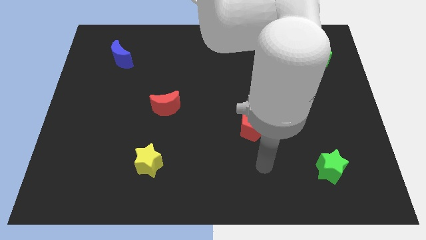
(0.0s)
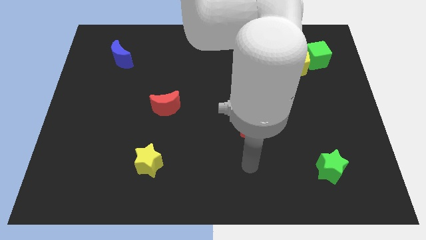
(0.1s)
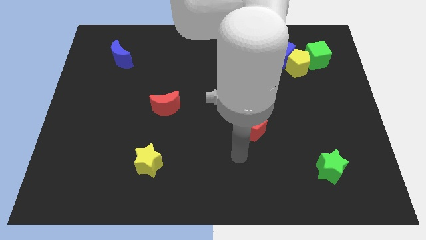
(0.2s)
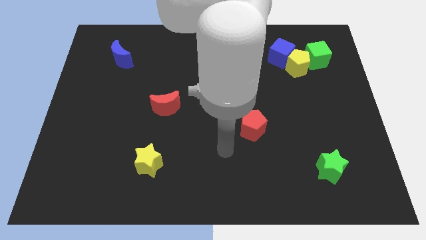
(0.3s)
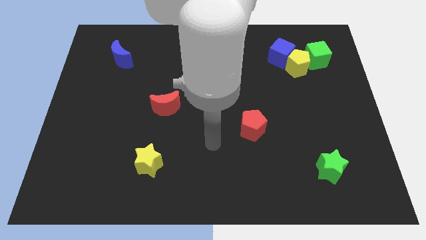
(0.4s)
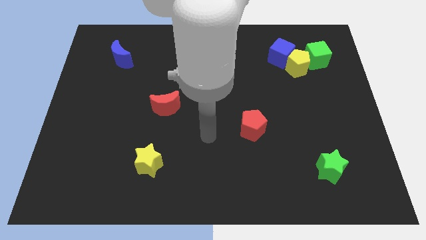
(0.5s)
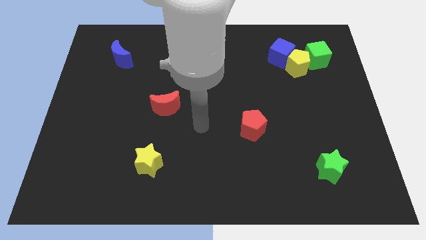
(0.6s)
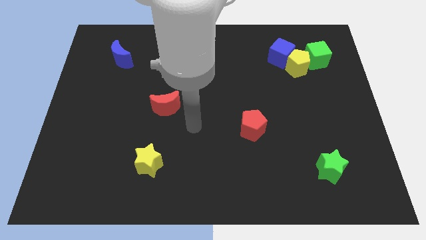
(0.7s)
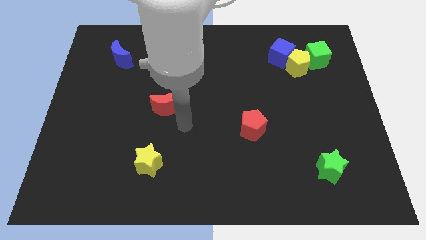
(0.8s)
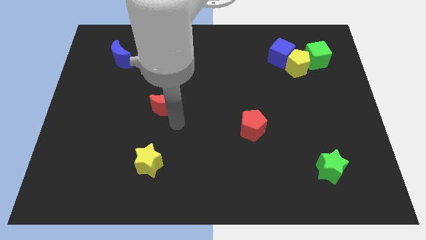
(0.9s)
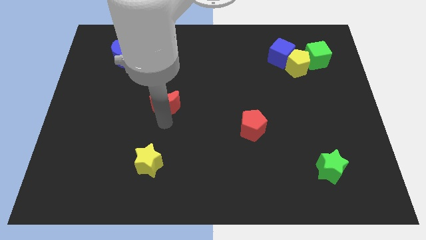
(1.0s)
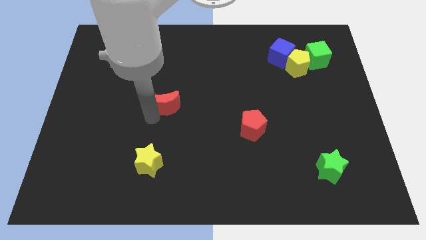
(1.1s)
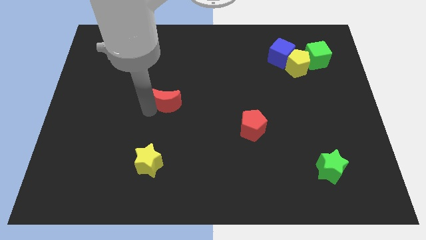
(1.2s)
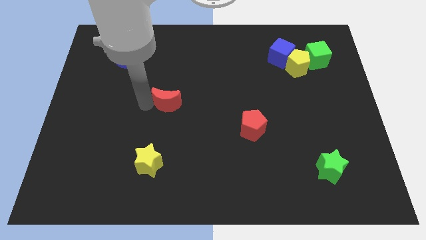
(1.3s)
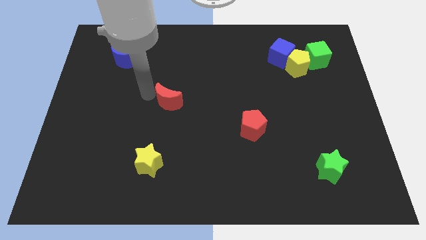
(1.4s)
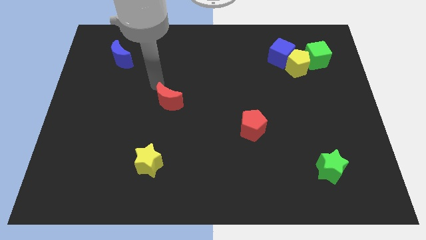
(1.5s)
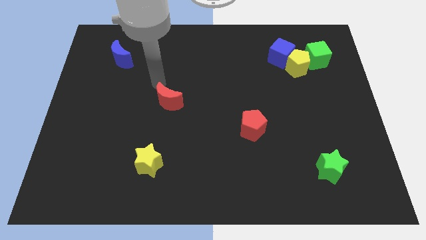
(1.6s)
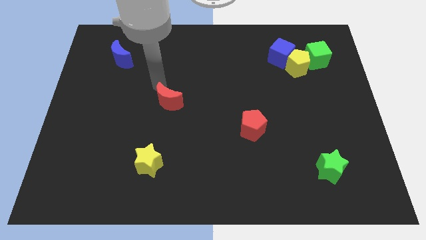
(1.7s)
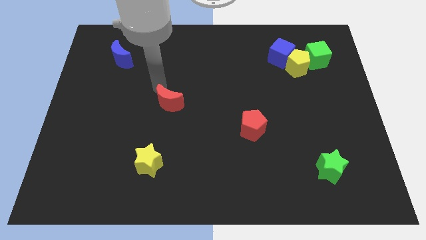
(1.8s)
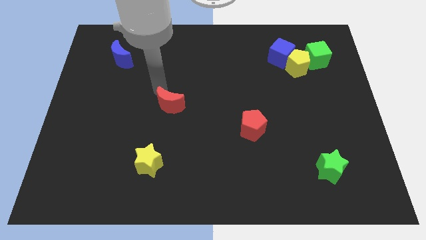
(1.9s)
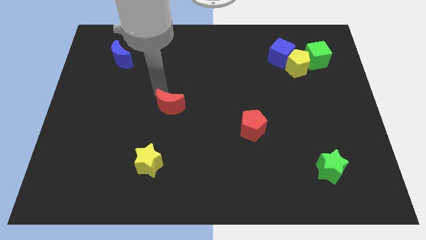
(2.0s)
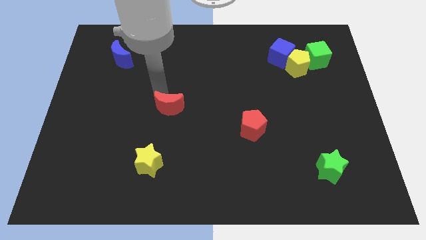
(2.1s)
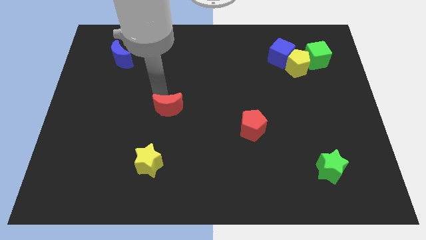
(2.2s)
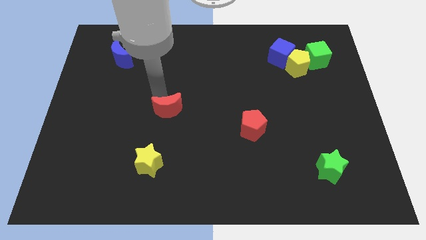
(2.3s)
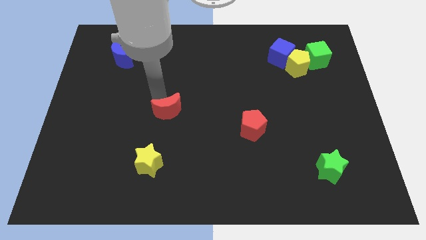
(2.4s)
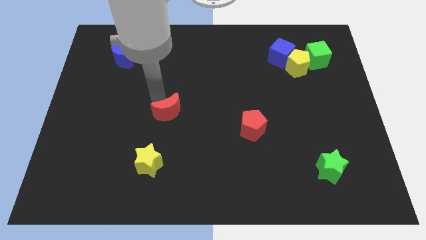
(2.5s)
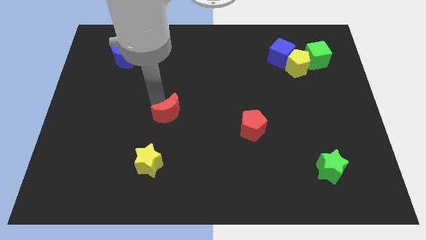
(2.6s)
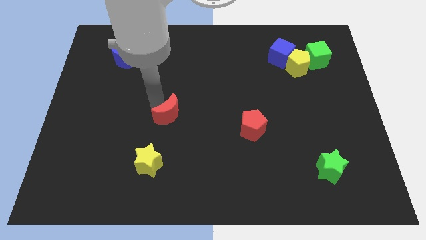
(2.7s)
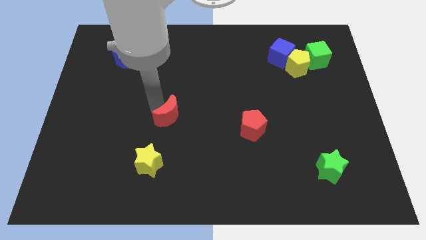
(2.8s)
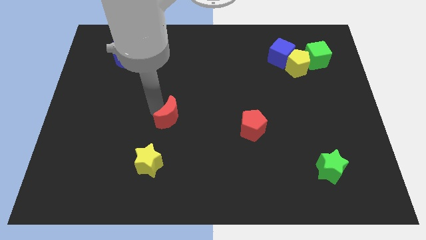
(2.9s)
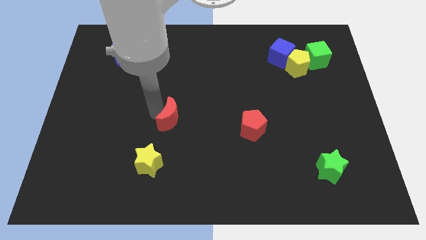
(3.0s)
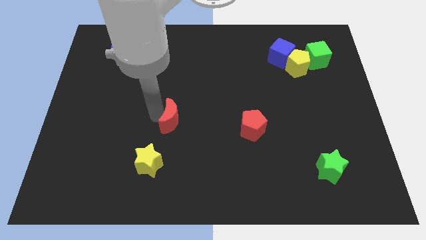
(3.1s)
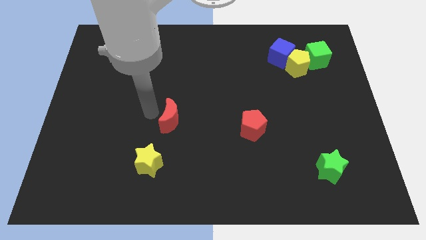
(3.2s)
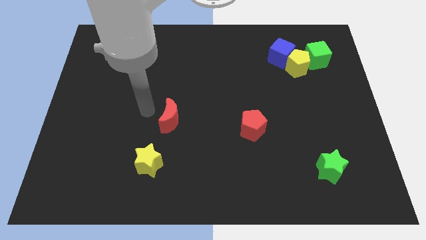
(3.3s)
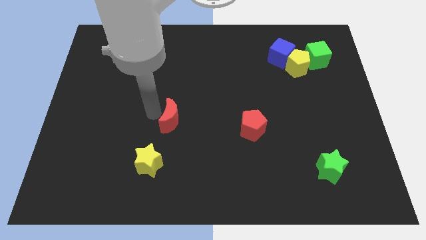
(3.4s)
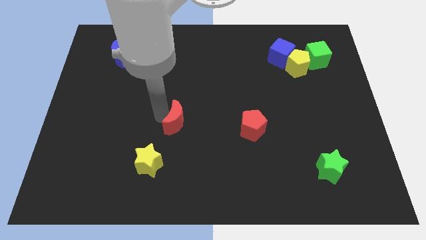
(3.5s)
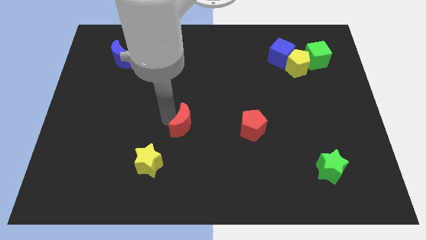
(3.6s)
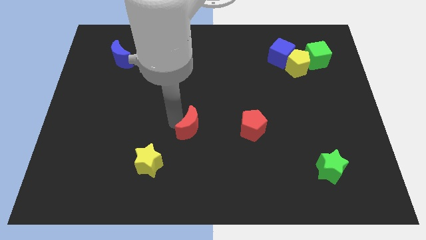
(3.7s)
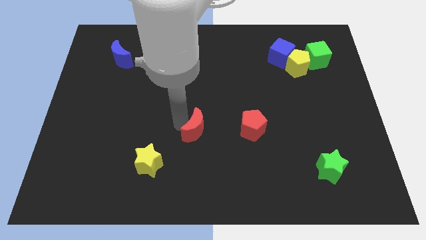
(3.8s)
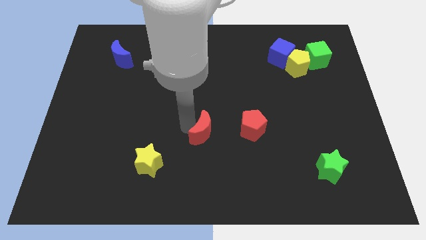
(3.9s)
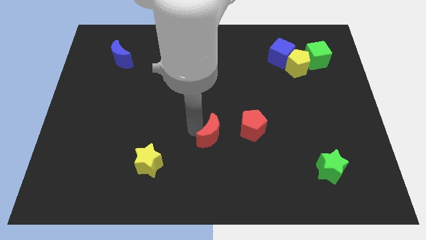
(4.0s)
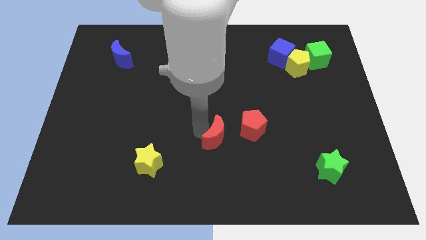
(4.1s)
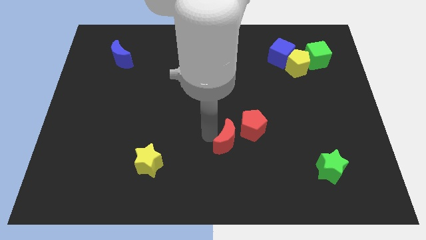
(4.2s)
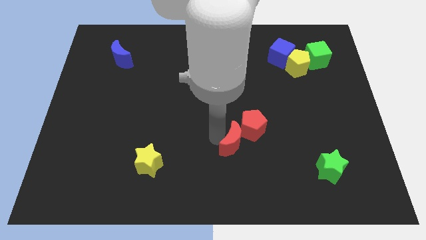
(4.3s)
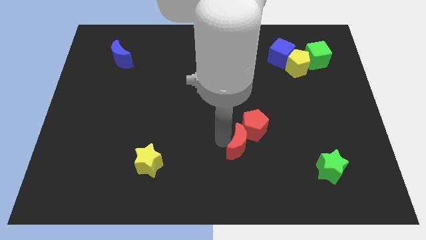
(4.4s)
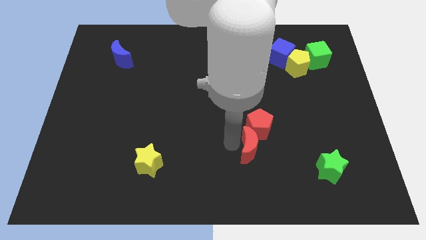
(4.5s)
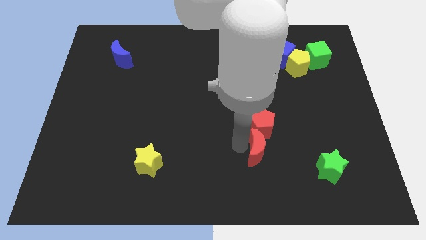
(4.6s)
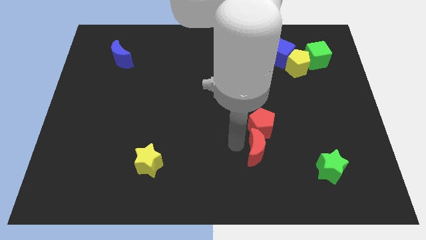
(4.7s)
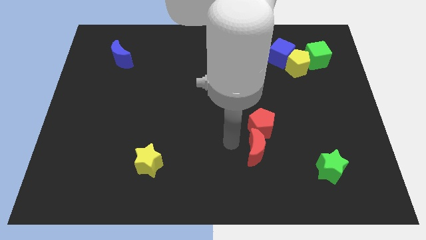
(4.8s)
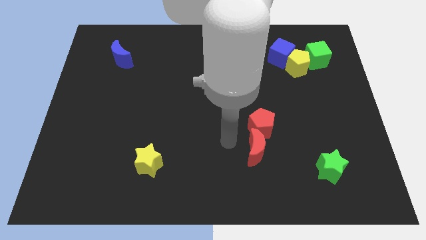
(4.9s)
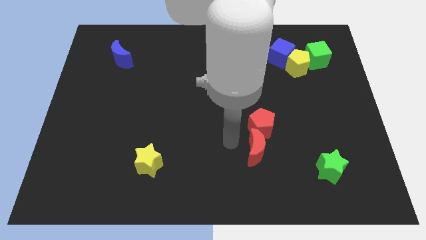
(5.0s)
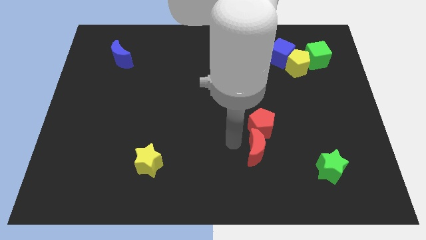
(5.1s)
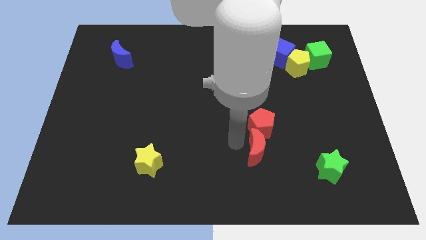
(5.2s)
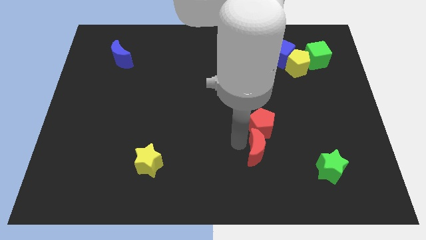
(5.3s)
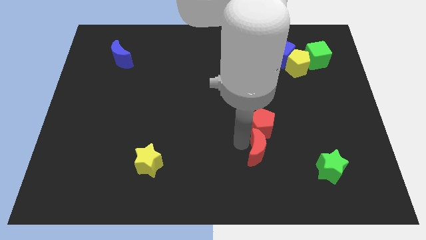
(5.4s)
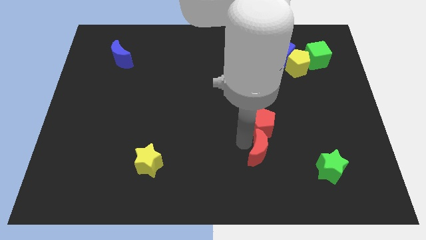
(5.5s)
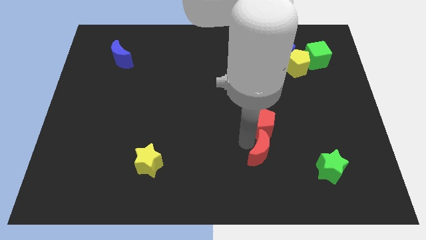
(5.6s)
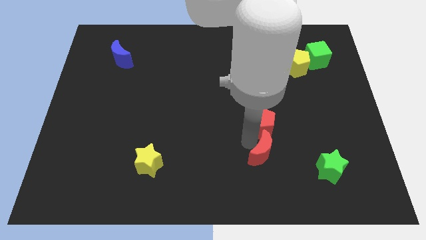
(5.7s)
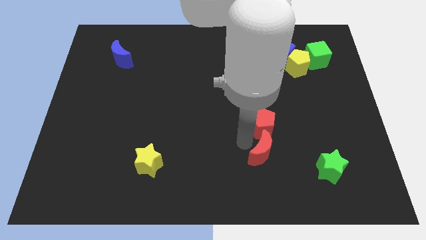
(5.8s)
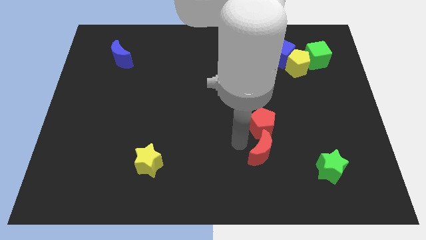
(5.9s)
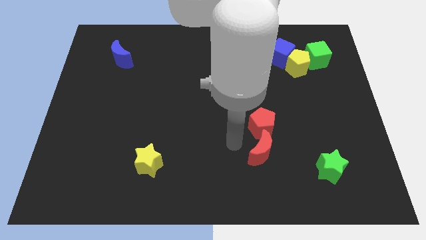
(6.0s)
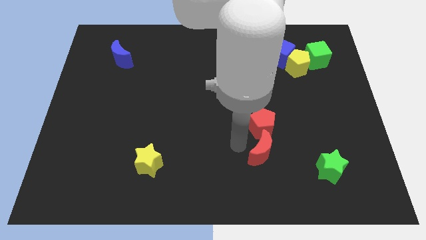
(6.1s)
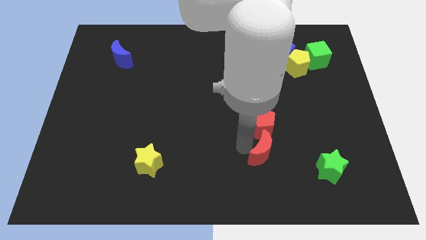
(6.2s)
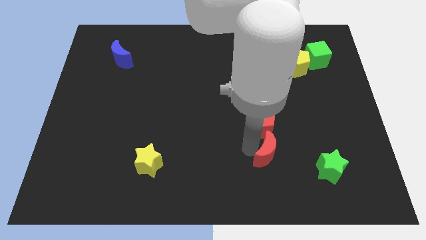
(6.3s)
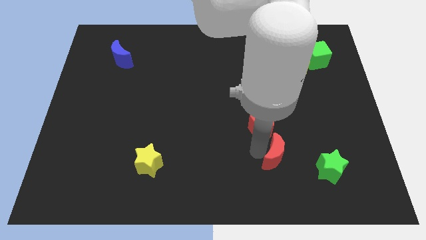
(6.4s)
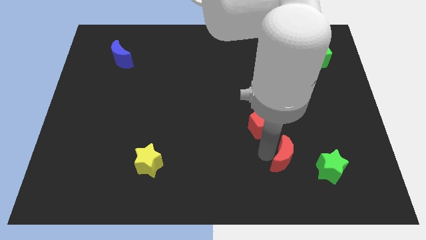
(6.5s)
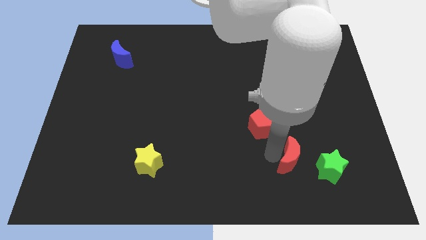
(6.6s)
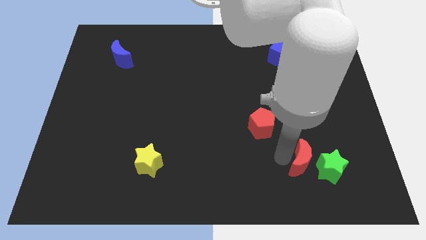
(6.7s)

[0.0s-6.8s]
slide the red moon next to the green star
